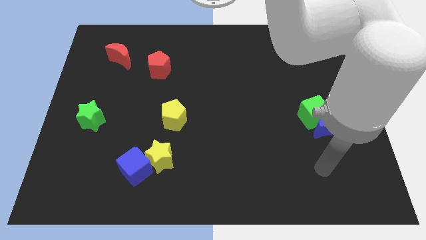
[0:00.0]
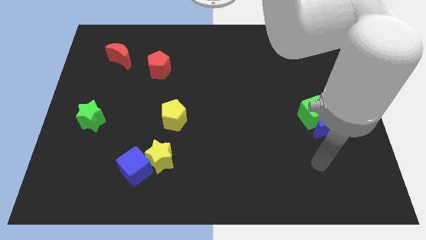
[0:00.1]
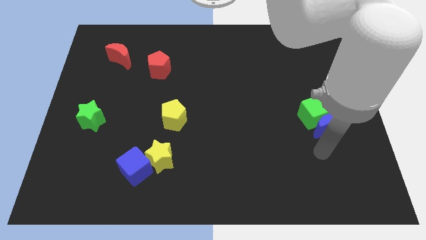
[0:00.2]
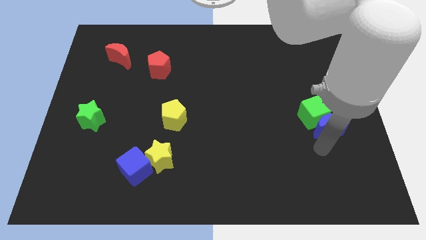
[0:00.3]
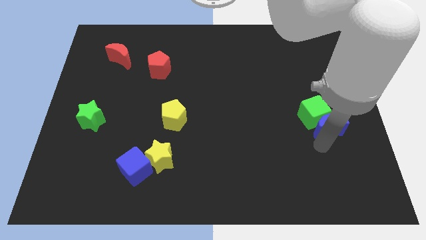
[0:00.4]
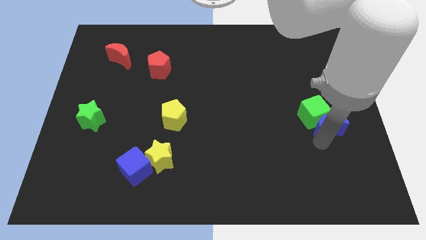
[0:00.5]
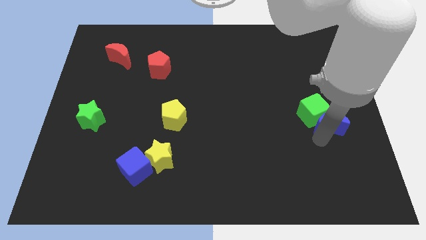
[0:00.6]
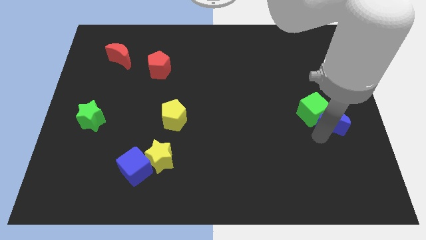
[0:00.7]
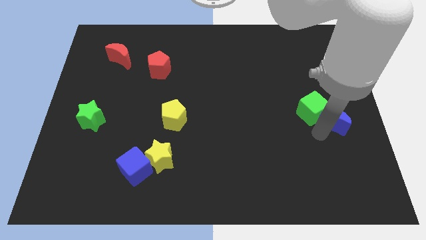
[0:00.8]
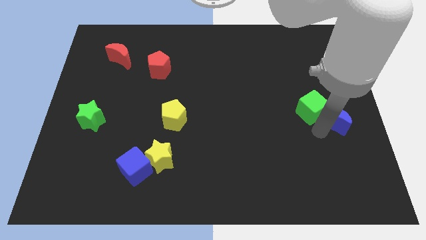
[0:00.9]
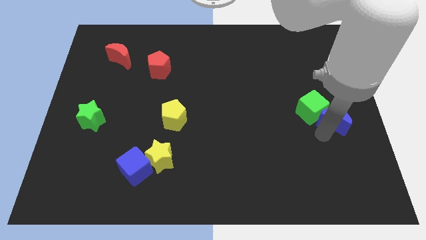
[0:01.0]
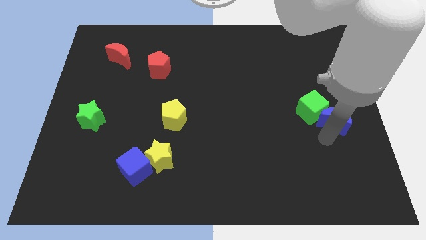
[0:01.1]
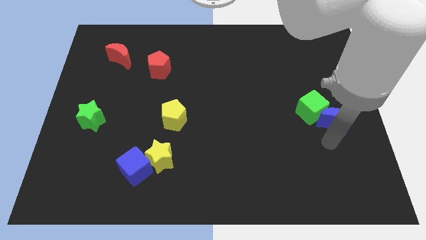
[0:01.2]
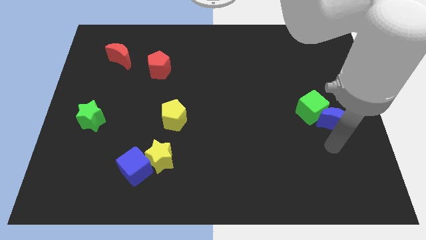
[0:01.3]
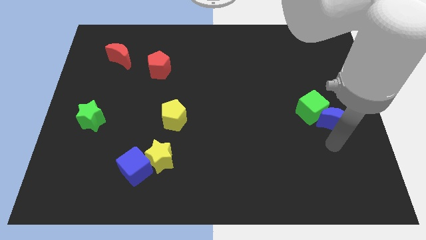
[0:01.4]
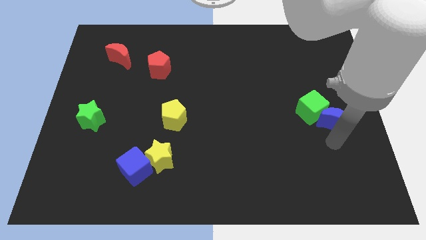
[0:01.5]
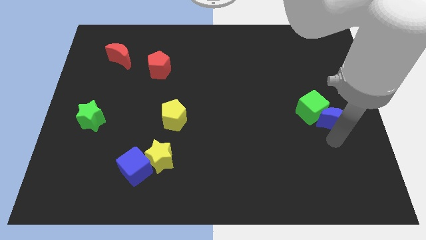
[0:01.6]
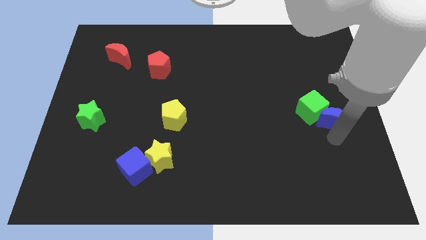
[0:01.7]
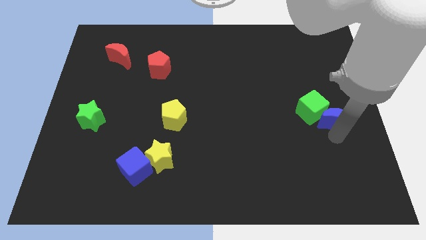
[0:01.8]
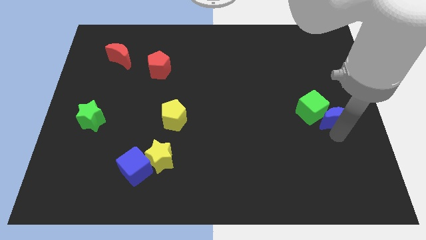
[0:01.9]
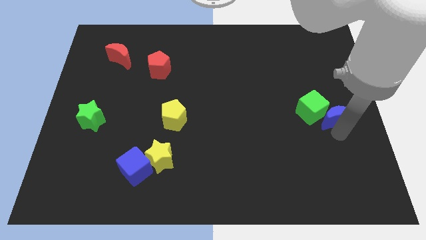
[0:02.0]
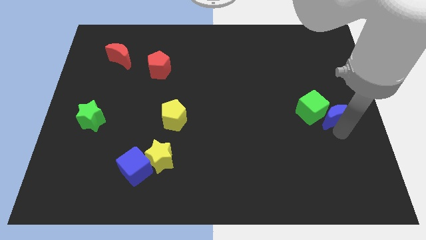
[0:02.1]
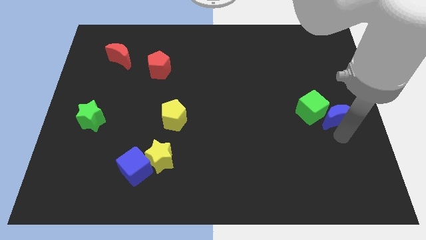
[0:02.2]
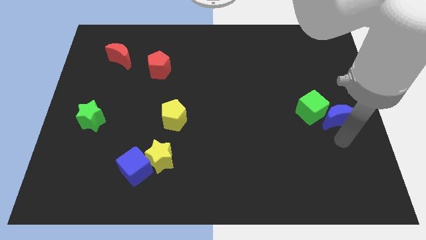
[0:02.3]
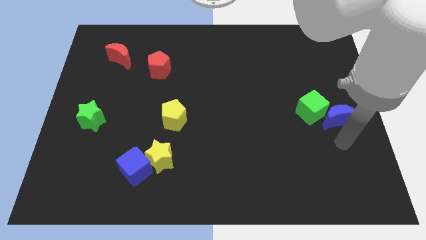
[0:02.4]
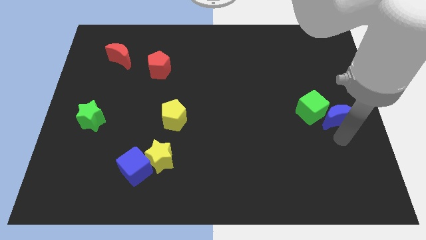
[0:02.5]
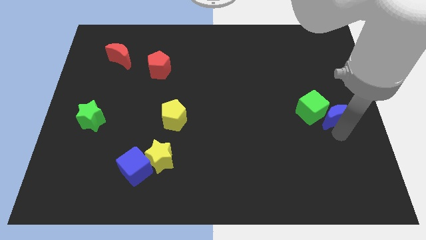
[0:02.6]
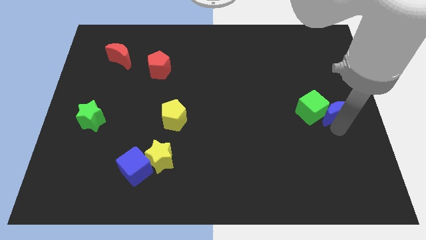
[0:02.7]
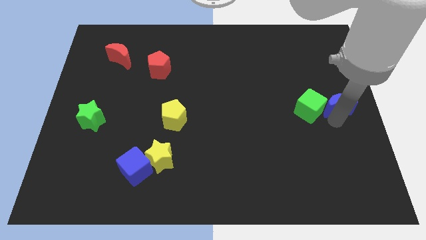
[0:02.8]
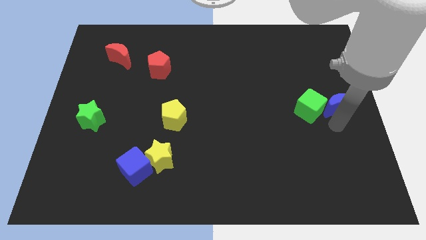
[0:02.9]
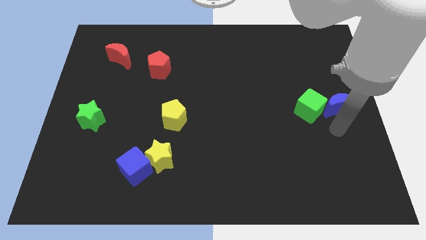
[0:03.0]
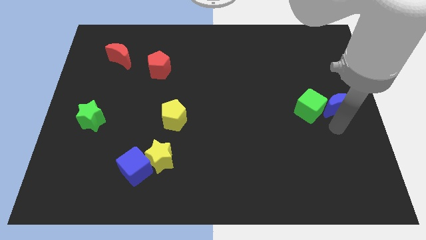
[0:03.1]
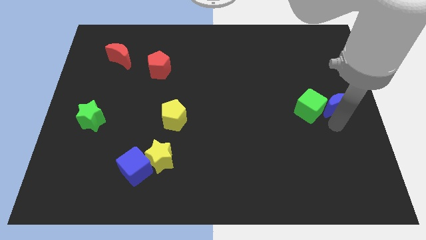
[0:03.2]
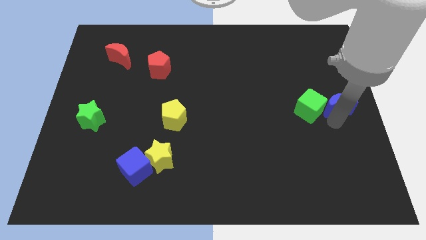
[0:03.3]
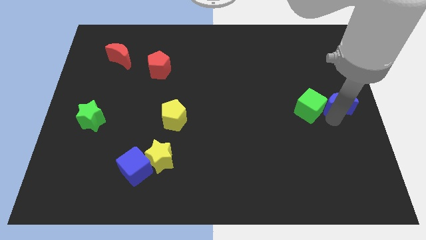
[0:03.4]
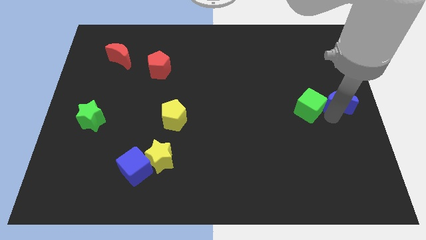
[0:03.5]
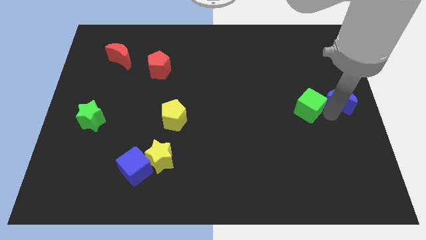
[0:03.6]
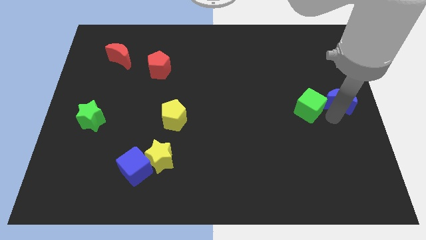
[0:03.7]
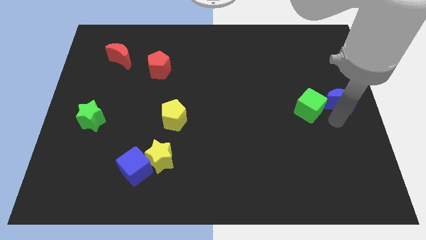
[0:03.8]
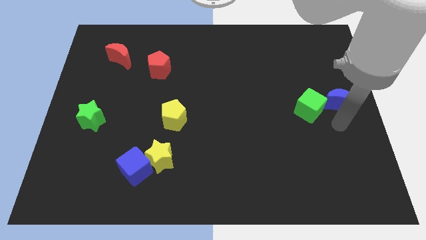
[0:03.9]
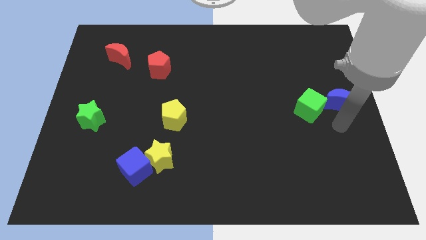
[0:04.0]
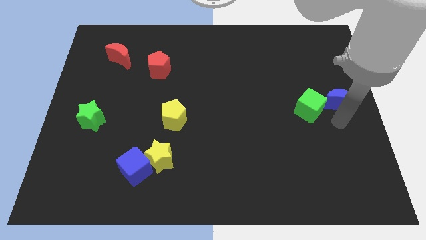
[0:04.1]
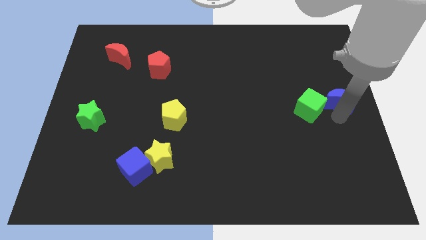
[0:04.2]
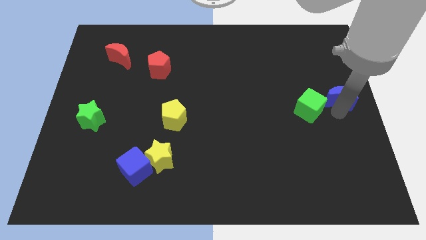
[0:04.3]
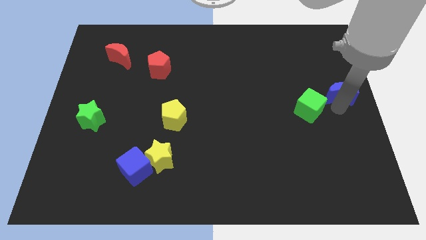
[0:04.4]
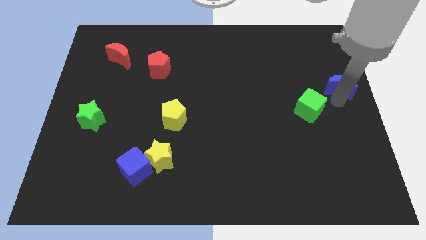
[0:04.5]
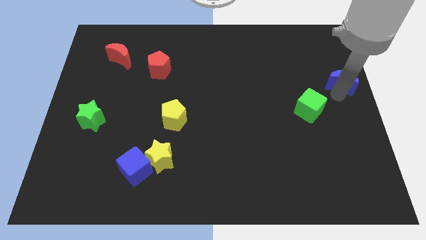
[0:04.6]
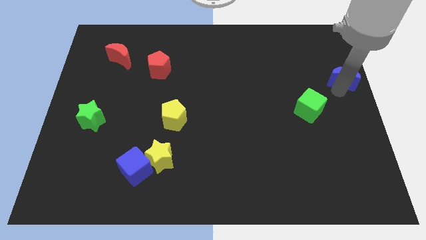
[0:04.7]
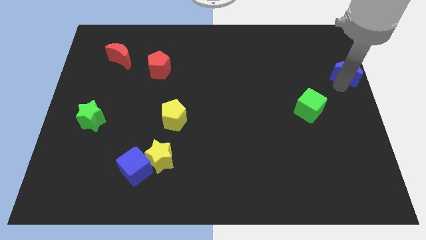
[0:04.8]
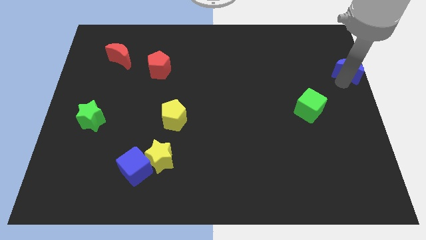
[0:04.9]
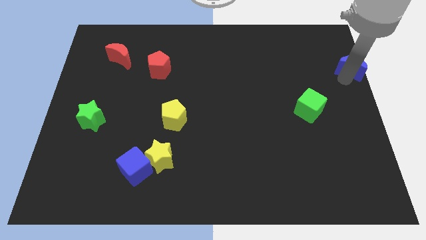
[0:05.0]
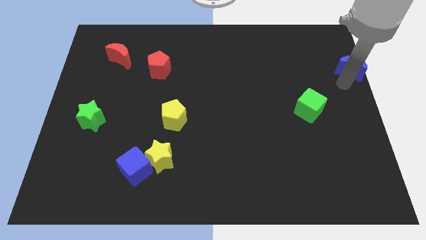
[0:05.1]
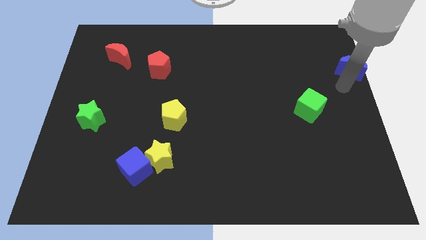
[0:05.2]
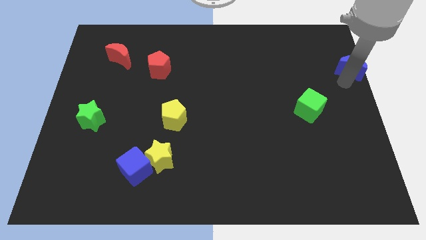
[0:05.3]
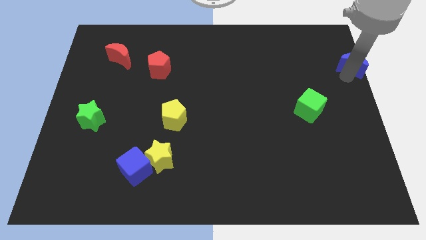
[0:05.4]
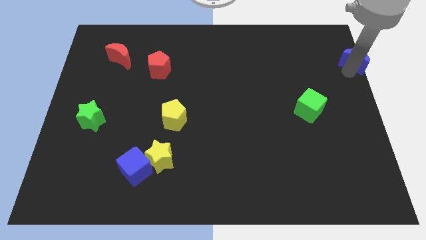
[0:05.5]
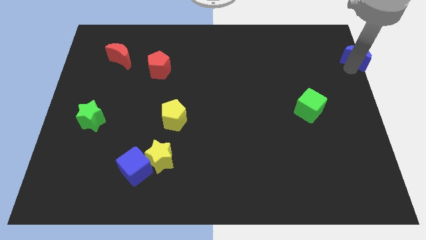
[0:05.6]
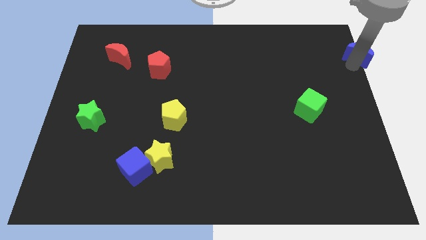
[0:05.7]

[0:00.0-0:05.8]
slide the blue moon to the top right of the board
